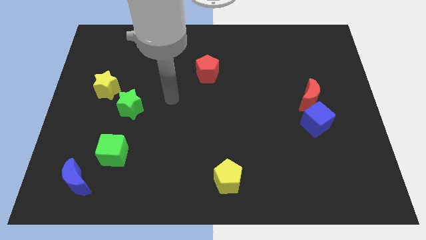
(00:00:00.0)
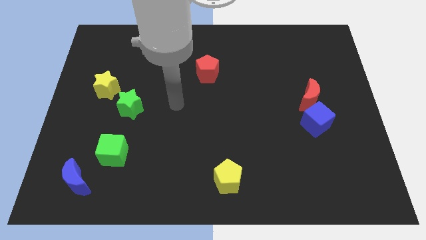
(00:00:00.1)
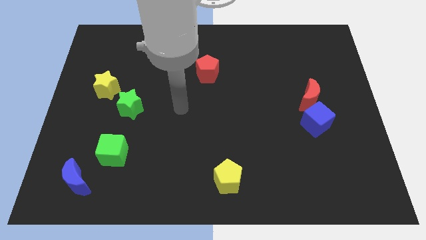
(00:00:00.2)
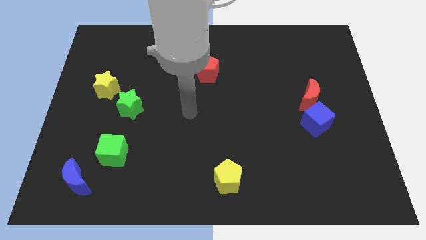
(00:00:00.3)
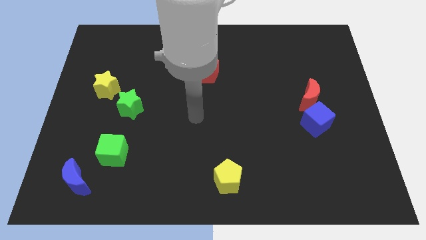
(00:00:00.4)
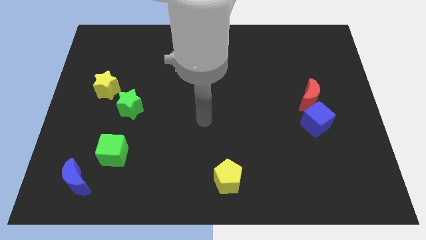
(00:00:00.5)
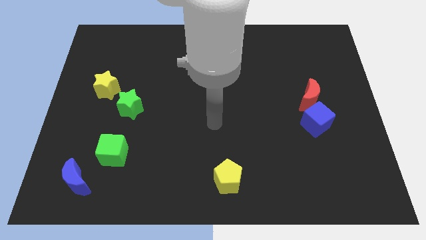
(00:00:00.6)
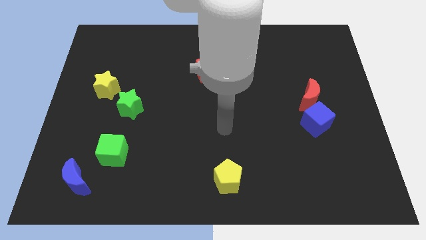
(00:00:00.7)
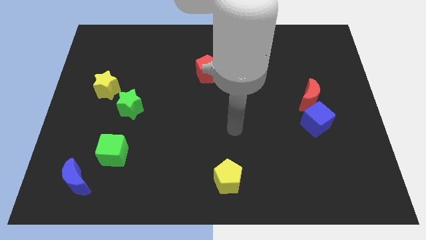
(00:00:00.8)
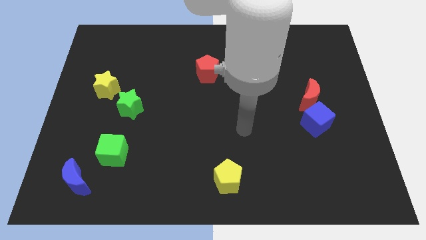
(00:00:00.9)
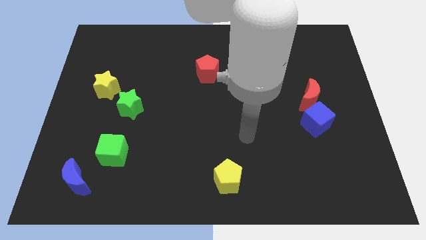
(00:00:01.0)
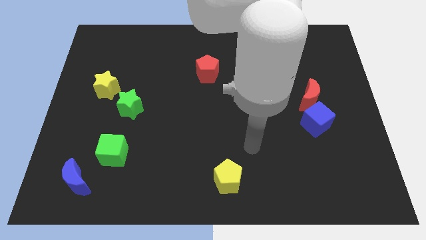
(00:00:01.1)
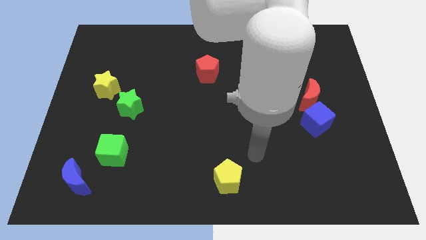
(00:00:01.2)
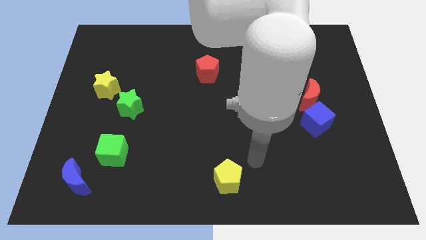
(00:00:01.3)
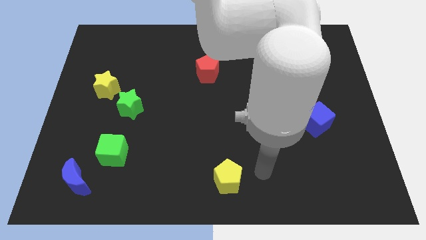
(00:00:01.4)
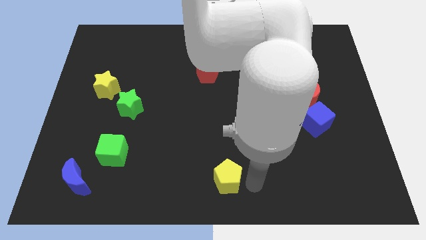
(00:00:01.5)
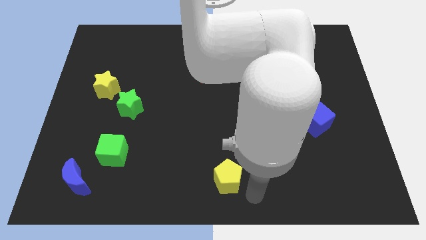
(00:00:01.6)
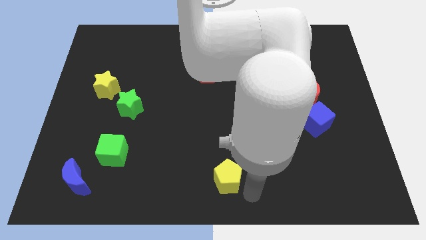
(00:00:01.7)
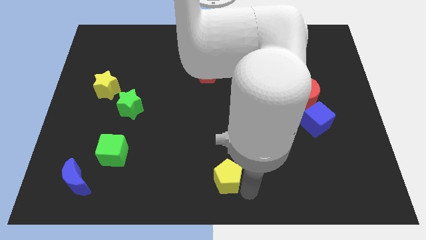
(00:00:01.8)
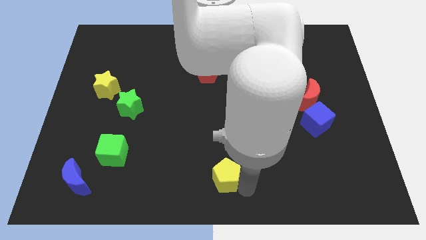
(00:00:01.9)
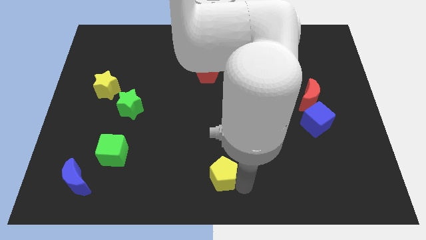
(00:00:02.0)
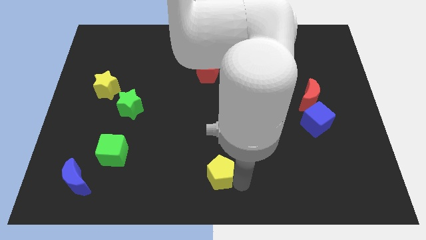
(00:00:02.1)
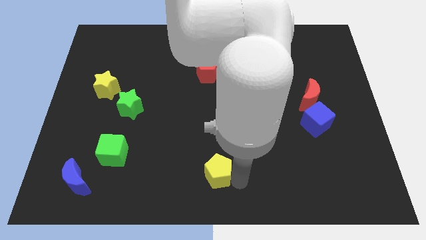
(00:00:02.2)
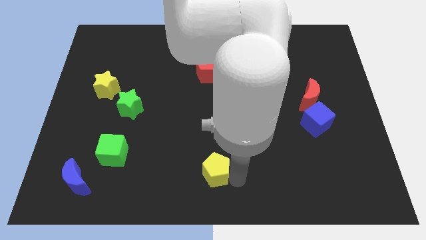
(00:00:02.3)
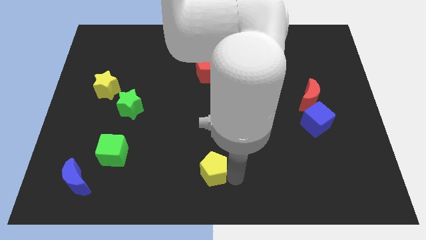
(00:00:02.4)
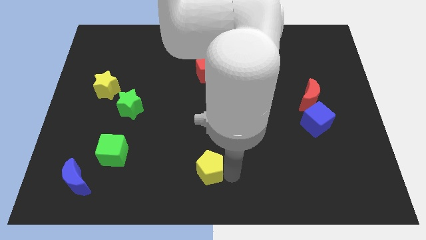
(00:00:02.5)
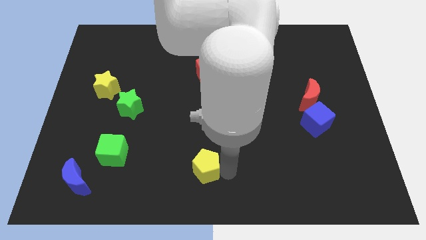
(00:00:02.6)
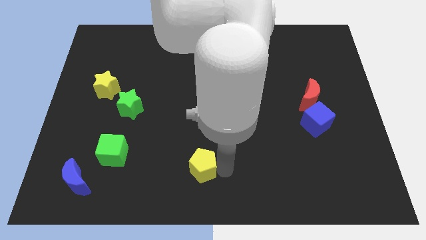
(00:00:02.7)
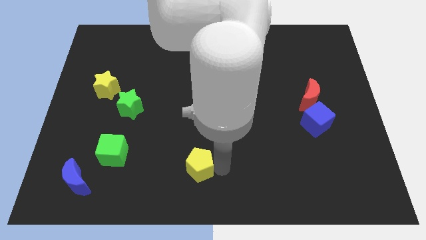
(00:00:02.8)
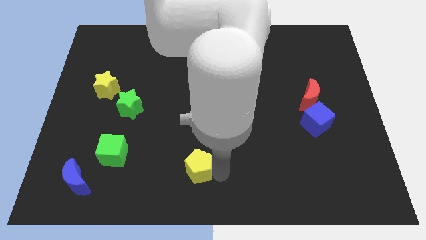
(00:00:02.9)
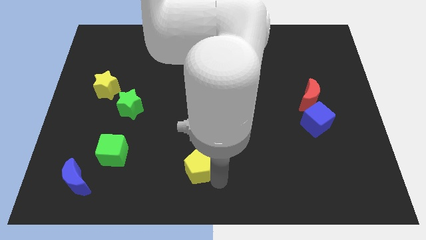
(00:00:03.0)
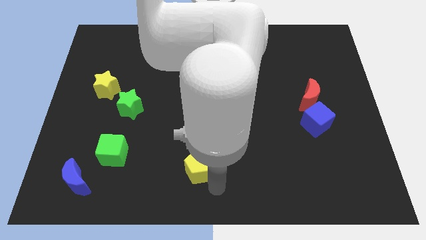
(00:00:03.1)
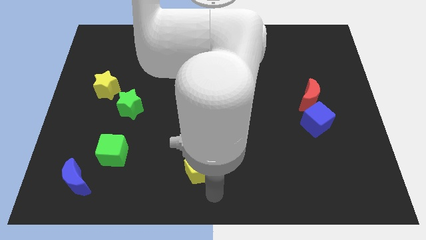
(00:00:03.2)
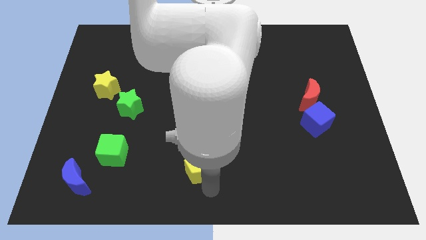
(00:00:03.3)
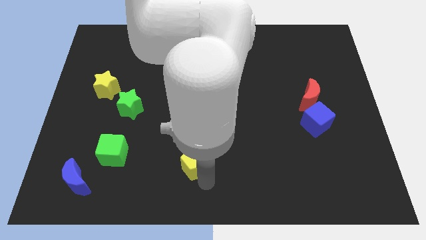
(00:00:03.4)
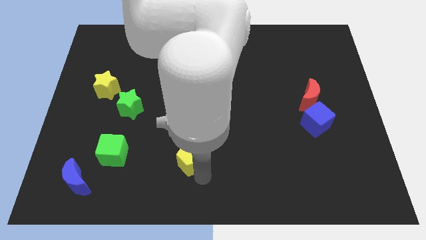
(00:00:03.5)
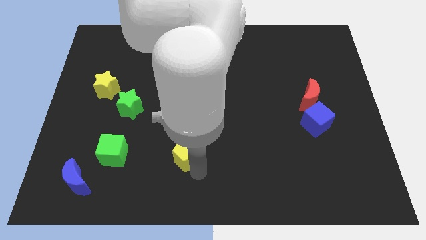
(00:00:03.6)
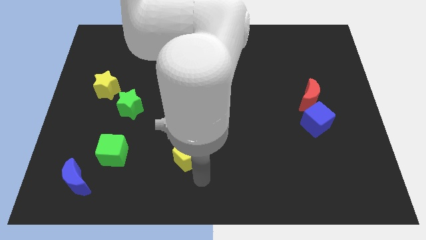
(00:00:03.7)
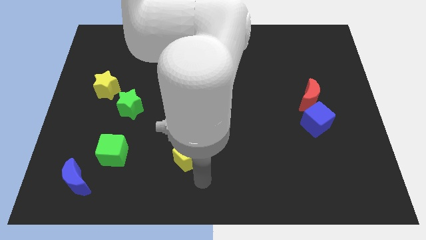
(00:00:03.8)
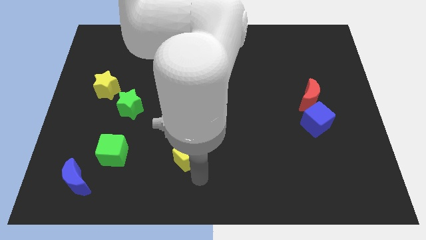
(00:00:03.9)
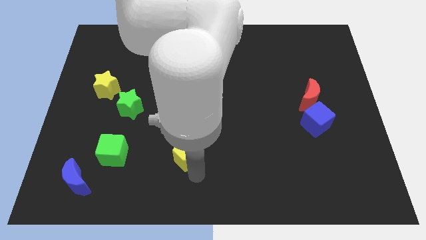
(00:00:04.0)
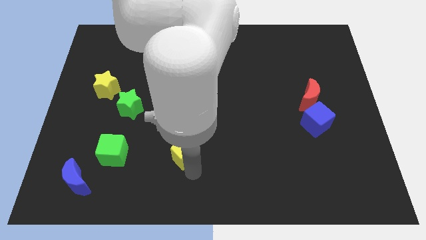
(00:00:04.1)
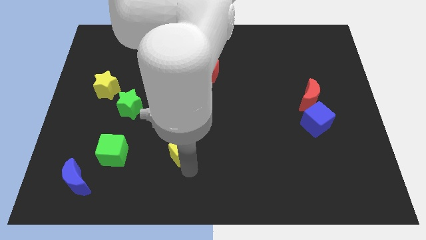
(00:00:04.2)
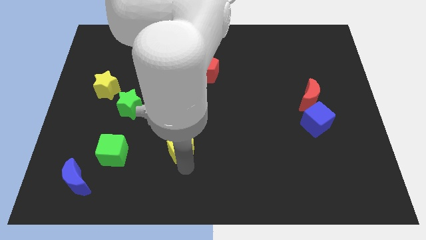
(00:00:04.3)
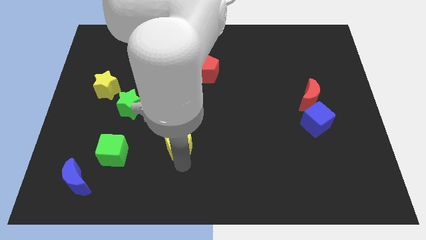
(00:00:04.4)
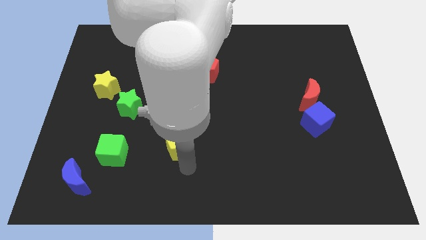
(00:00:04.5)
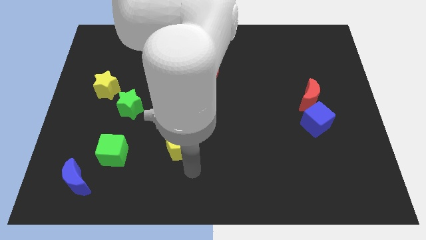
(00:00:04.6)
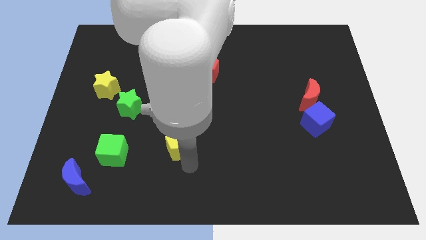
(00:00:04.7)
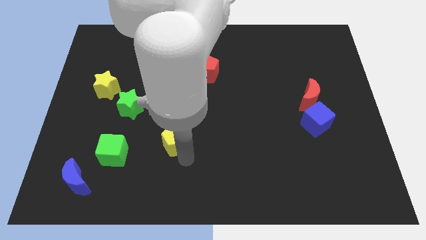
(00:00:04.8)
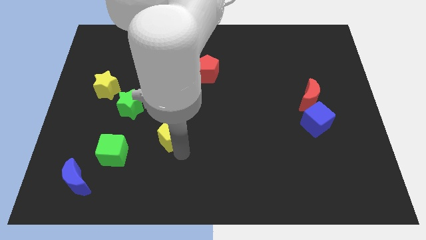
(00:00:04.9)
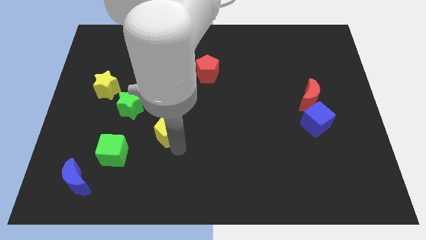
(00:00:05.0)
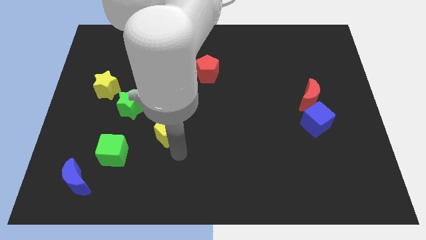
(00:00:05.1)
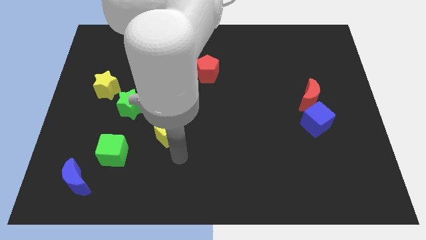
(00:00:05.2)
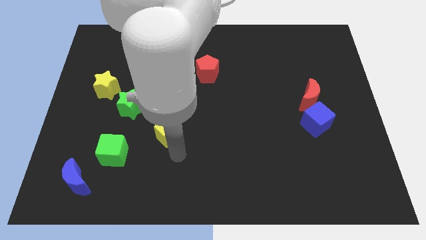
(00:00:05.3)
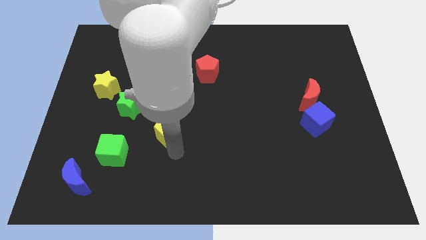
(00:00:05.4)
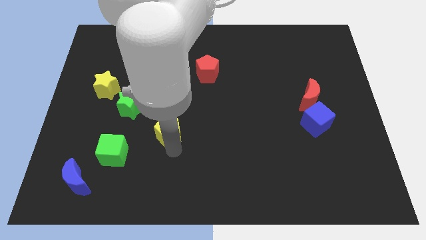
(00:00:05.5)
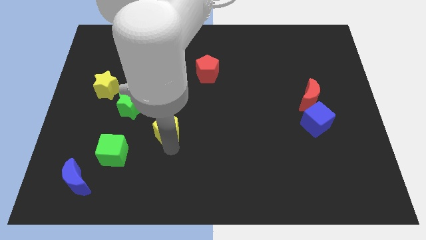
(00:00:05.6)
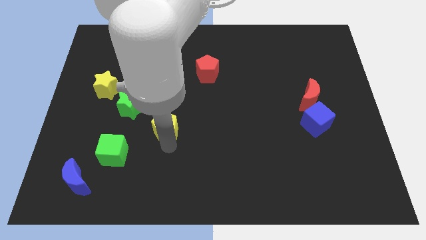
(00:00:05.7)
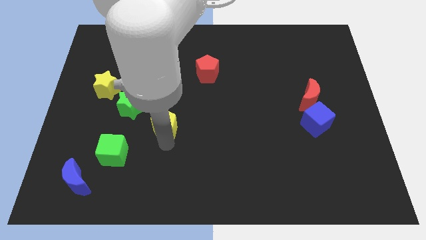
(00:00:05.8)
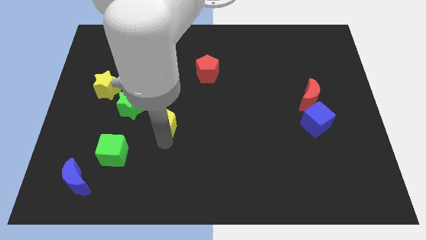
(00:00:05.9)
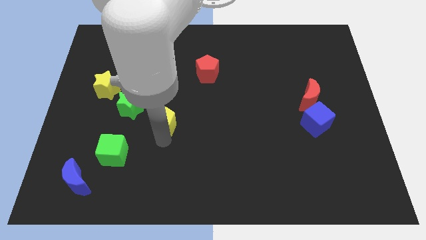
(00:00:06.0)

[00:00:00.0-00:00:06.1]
move the yellow pentagon up and to the left diagonally

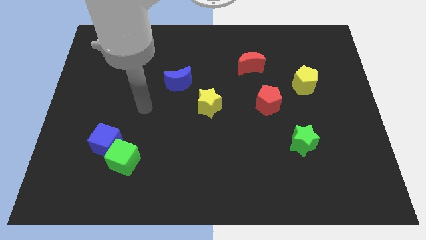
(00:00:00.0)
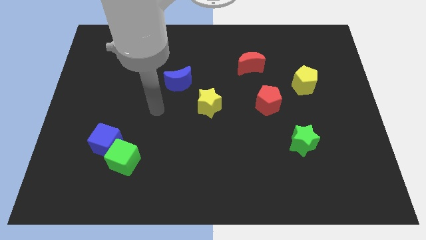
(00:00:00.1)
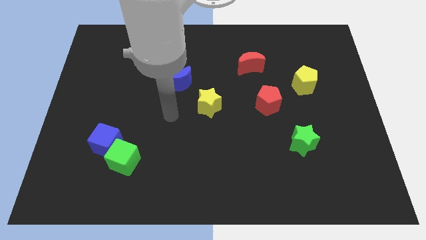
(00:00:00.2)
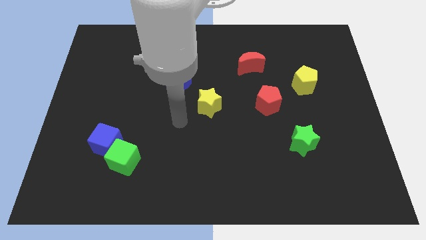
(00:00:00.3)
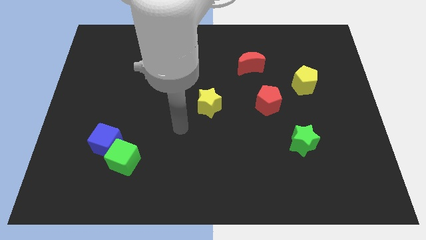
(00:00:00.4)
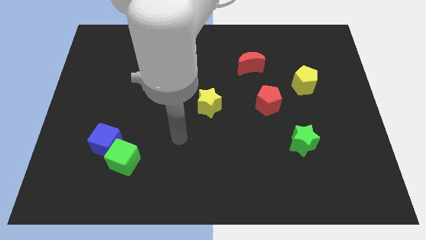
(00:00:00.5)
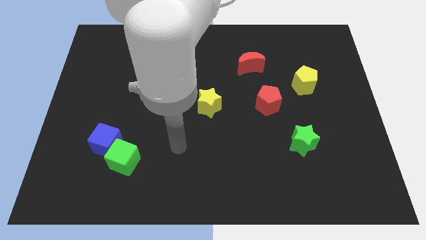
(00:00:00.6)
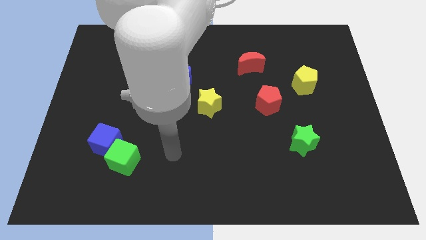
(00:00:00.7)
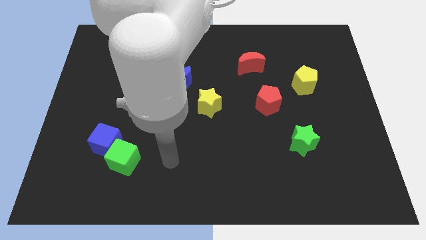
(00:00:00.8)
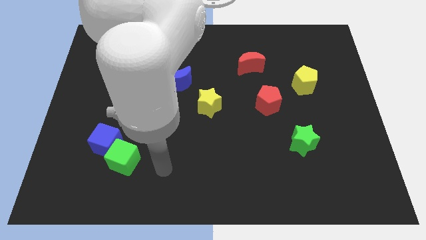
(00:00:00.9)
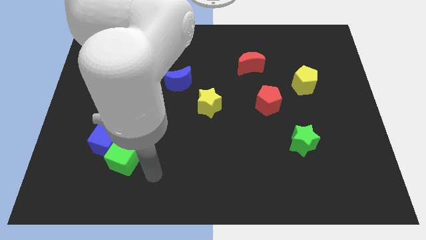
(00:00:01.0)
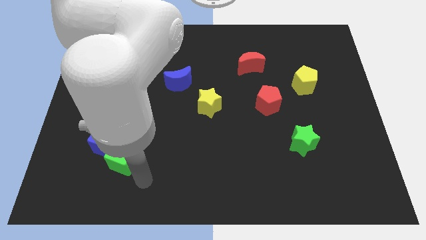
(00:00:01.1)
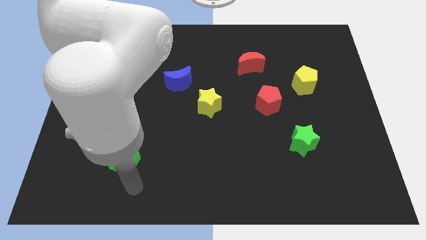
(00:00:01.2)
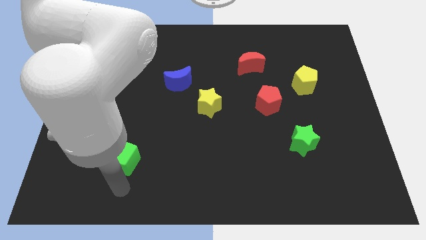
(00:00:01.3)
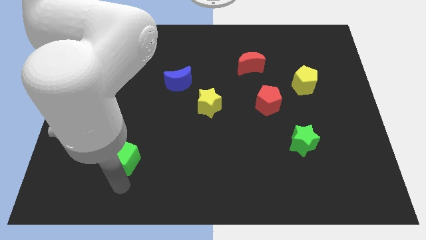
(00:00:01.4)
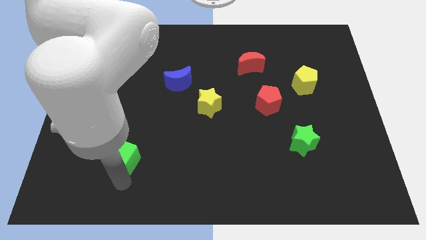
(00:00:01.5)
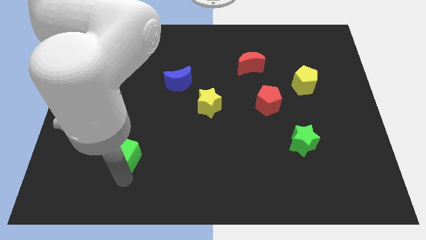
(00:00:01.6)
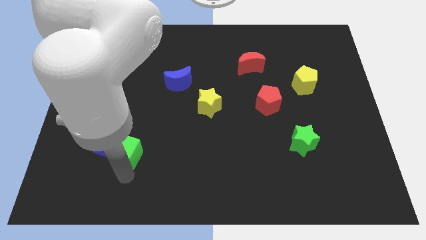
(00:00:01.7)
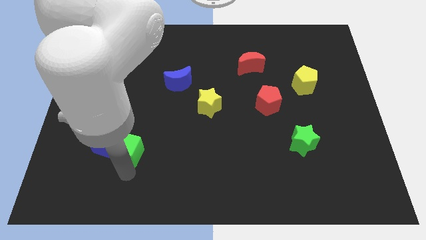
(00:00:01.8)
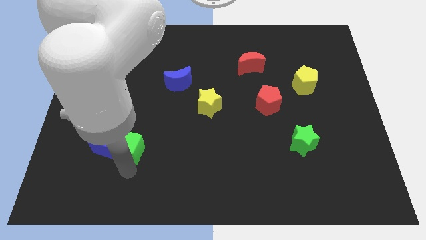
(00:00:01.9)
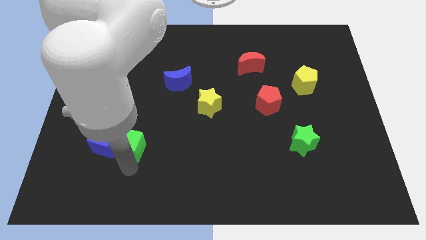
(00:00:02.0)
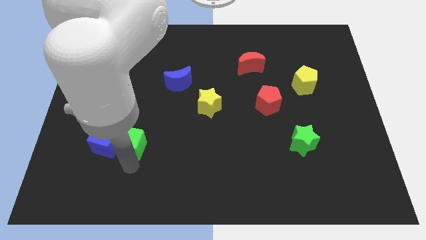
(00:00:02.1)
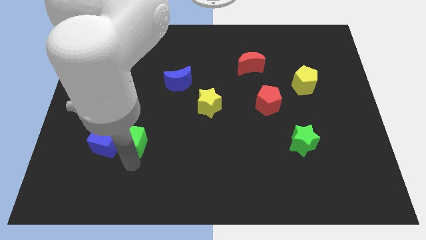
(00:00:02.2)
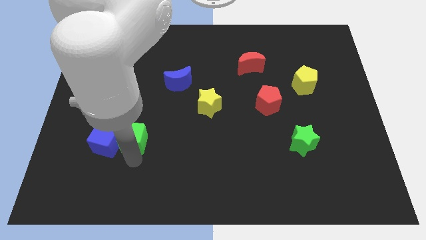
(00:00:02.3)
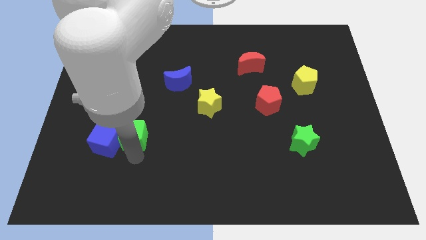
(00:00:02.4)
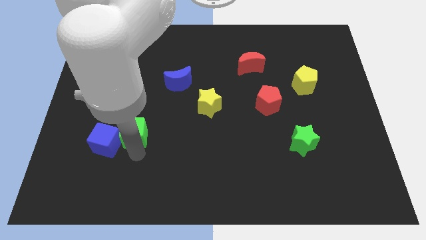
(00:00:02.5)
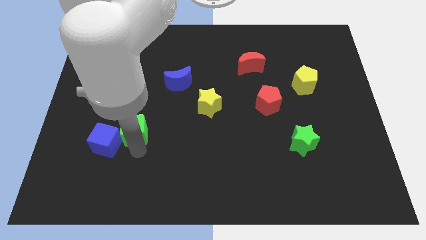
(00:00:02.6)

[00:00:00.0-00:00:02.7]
slightly slide the green cube upwards
